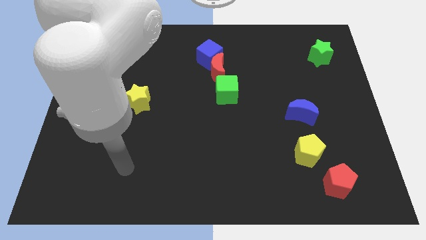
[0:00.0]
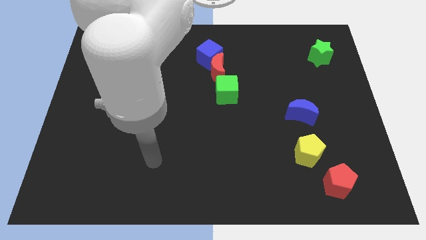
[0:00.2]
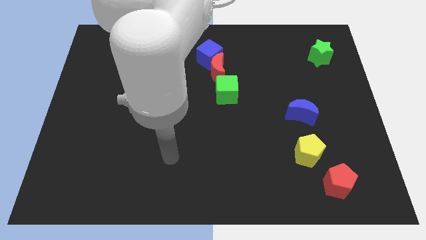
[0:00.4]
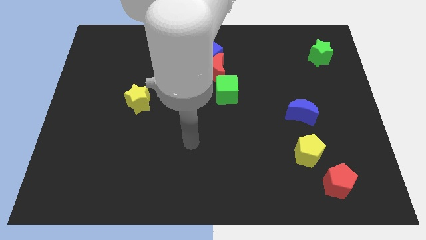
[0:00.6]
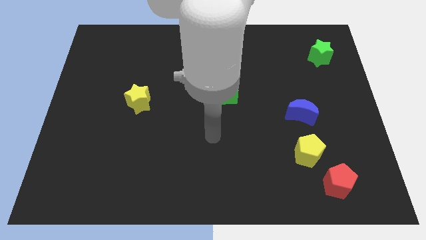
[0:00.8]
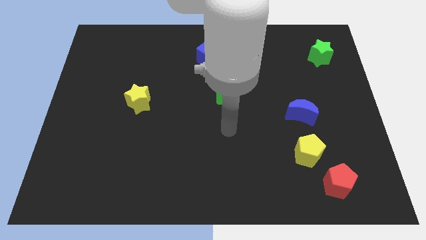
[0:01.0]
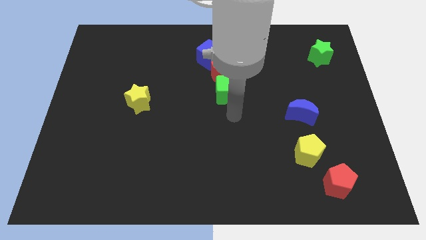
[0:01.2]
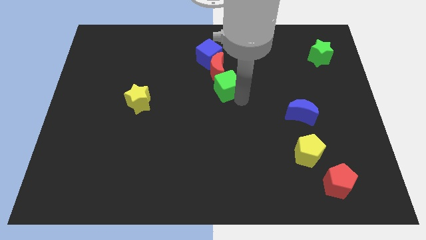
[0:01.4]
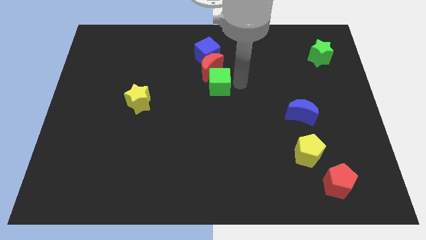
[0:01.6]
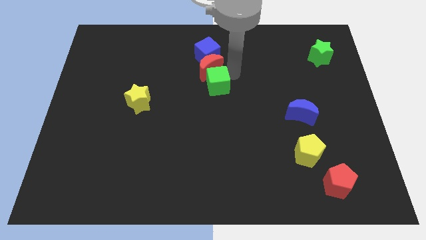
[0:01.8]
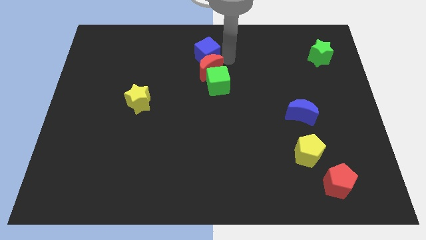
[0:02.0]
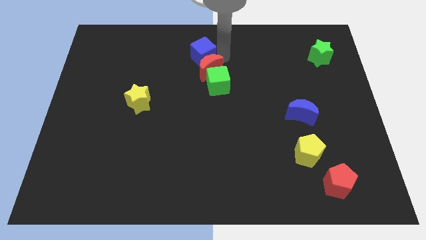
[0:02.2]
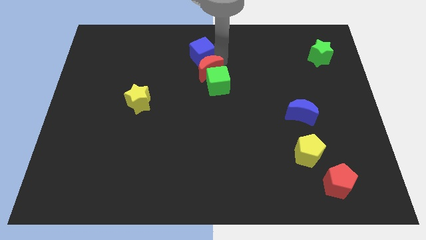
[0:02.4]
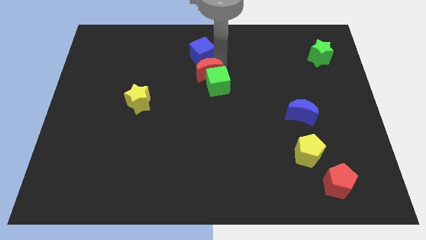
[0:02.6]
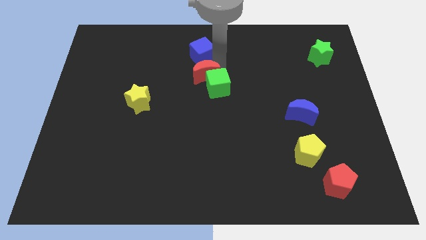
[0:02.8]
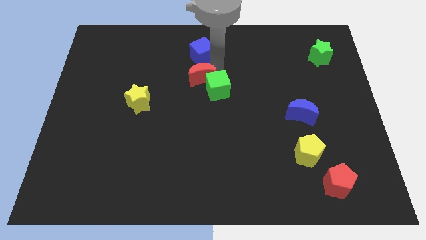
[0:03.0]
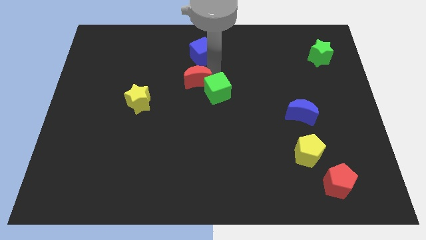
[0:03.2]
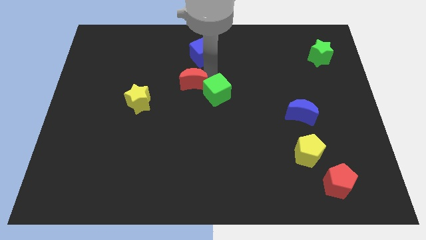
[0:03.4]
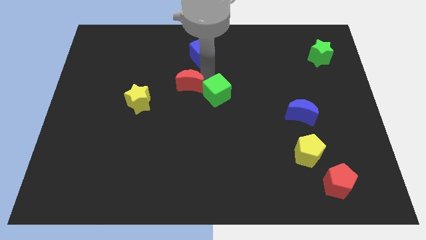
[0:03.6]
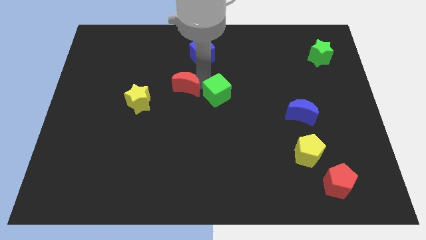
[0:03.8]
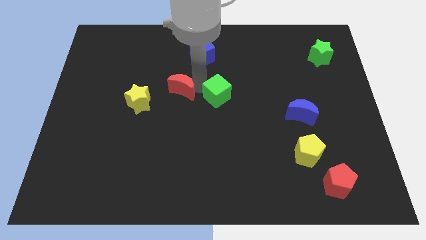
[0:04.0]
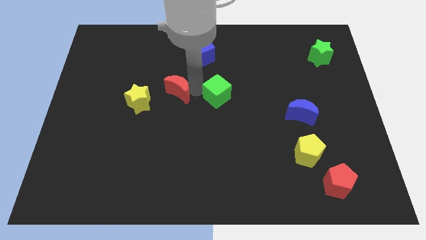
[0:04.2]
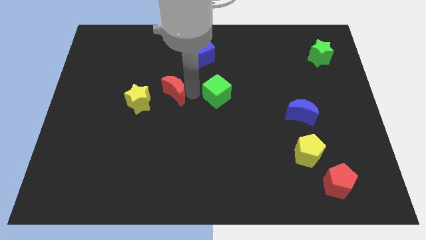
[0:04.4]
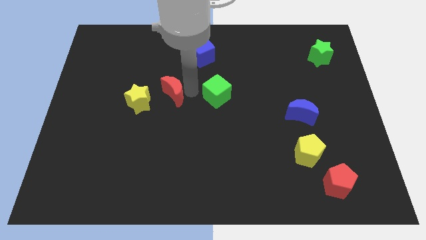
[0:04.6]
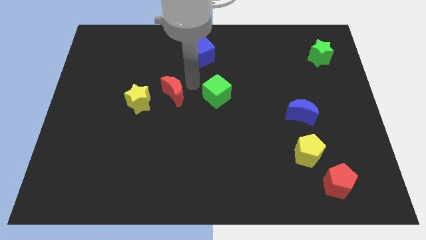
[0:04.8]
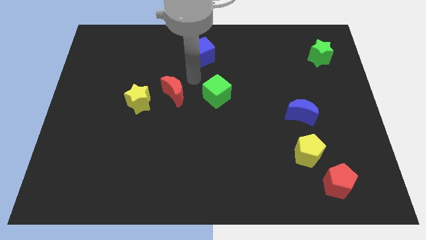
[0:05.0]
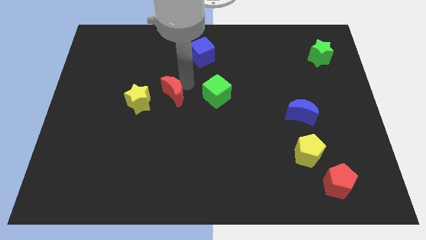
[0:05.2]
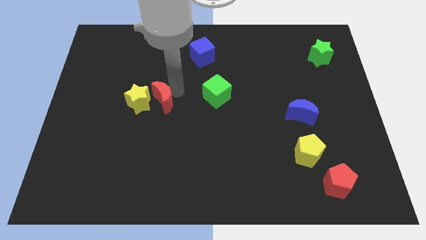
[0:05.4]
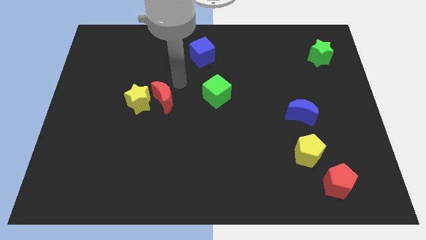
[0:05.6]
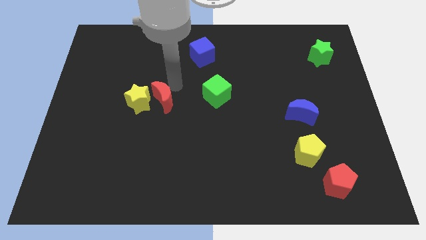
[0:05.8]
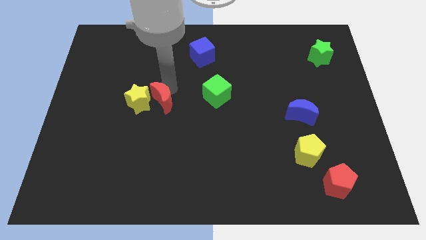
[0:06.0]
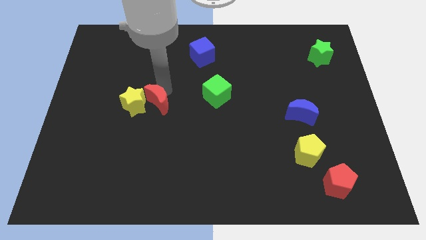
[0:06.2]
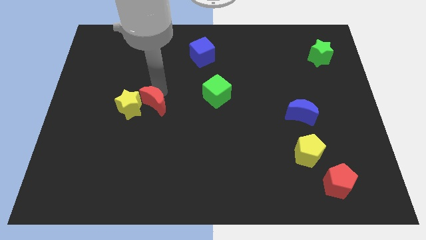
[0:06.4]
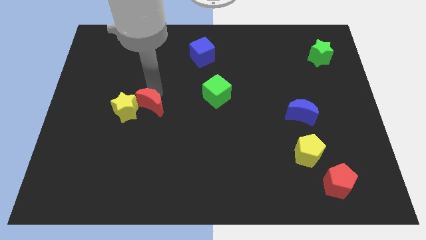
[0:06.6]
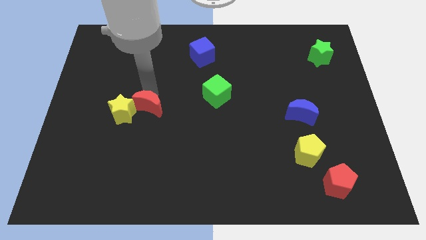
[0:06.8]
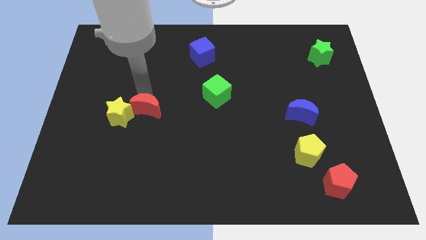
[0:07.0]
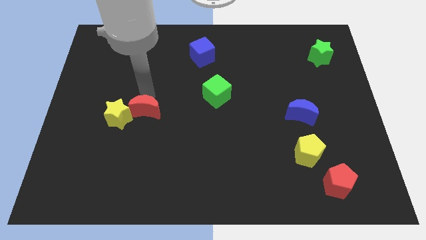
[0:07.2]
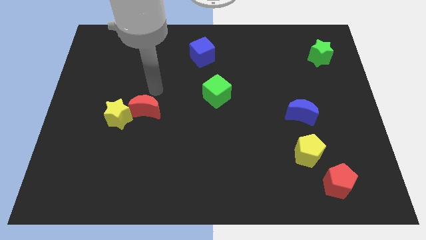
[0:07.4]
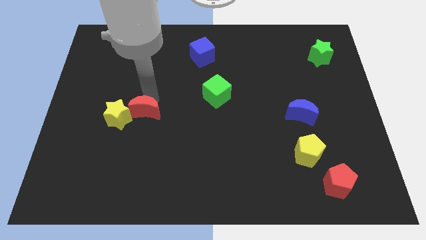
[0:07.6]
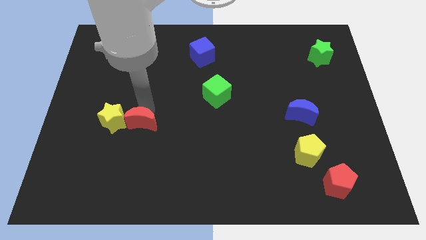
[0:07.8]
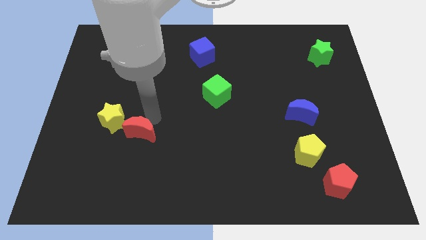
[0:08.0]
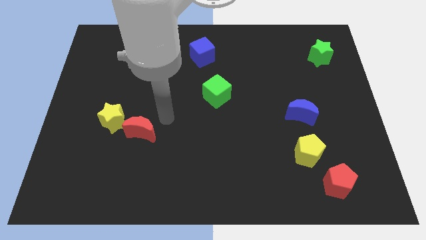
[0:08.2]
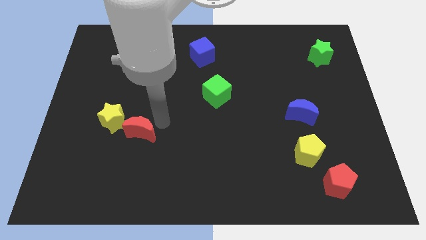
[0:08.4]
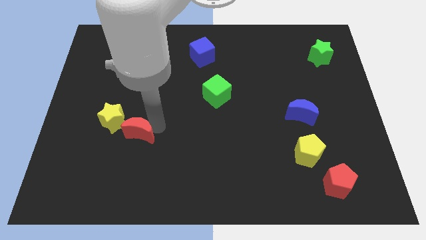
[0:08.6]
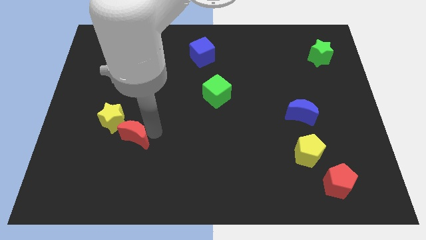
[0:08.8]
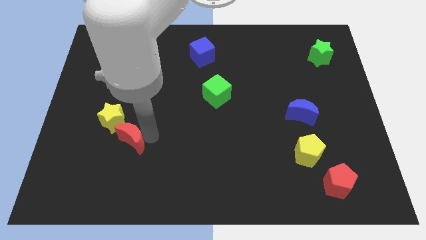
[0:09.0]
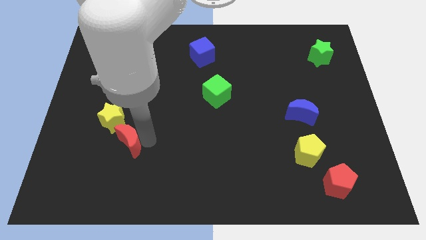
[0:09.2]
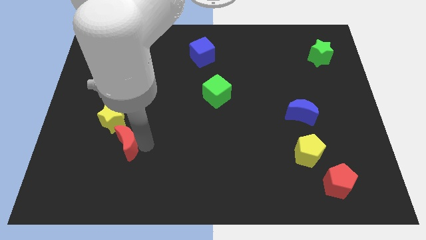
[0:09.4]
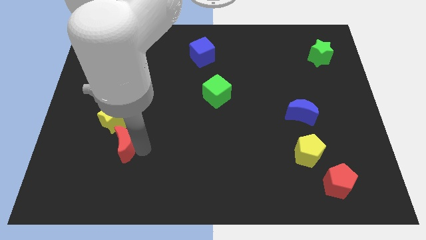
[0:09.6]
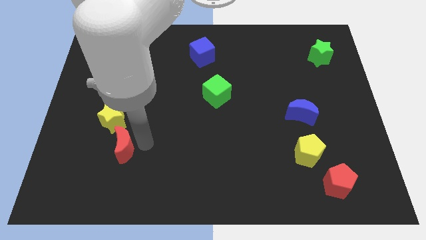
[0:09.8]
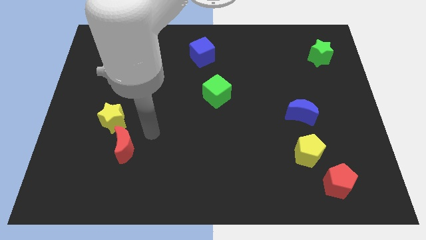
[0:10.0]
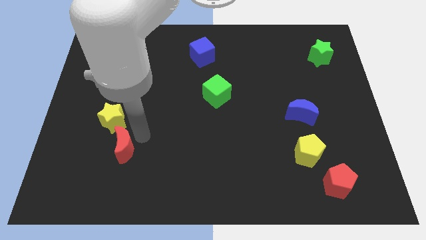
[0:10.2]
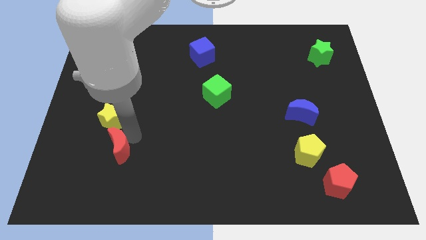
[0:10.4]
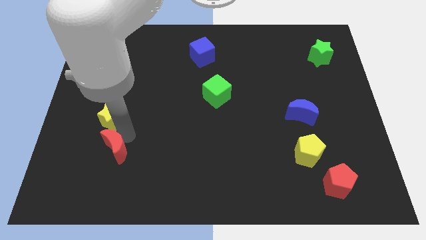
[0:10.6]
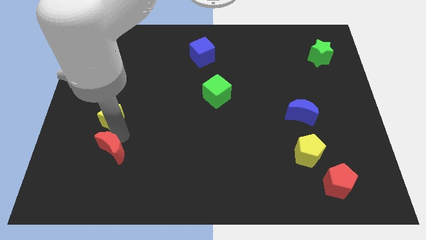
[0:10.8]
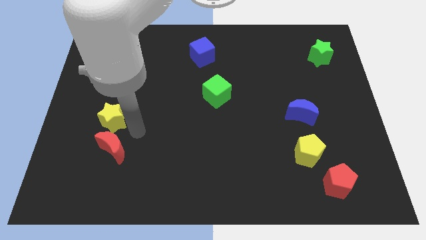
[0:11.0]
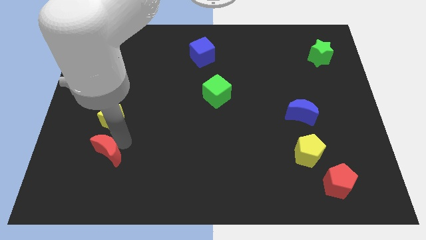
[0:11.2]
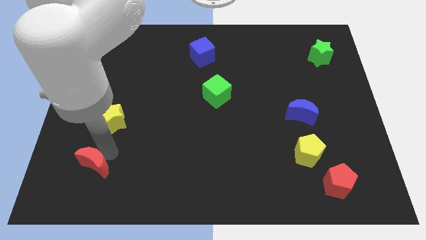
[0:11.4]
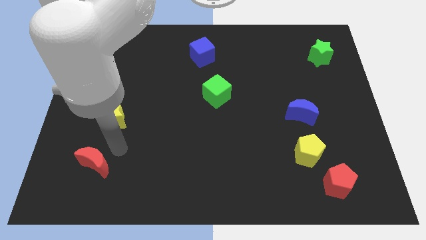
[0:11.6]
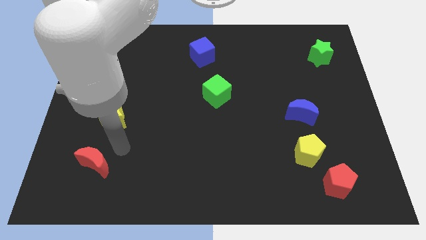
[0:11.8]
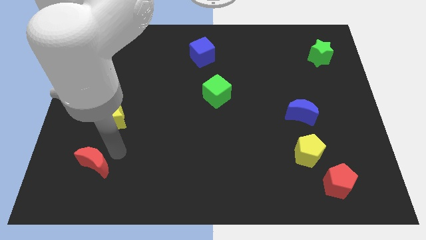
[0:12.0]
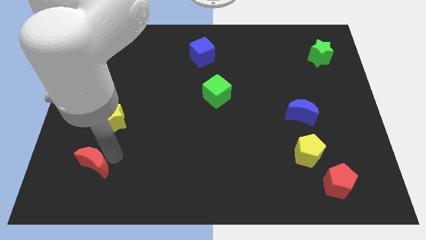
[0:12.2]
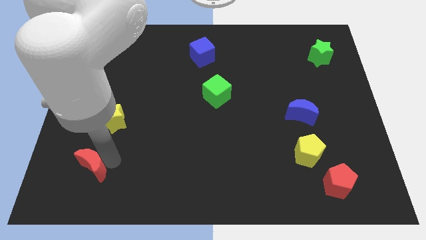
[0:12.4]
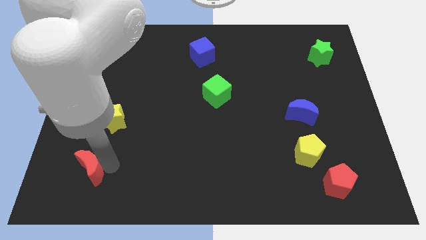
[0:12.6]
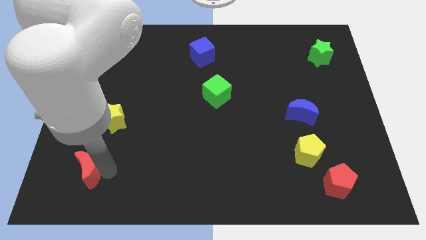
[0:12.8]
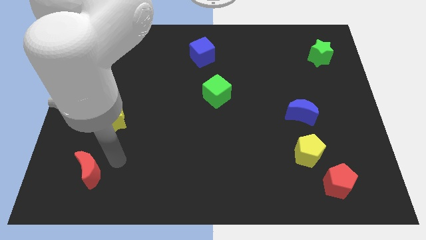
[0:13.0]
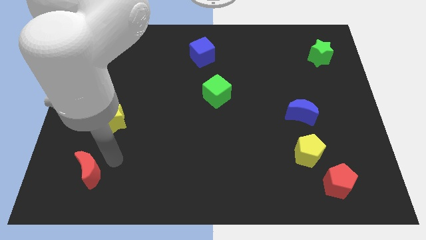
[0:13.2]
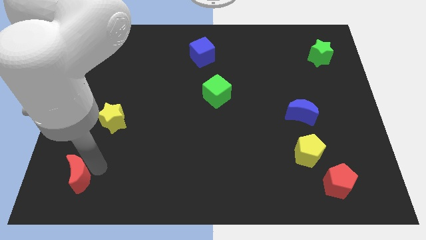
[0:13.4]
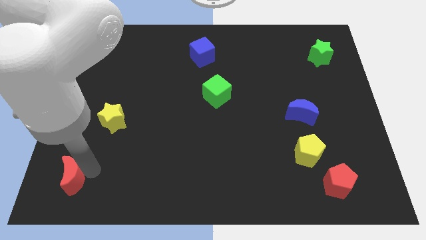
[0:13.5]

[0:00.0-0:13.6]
push the red moon to the lower left corner
